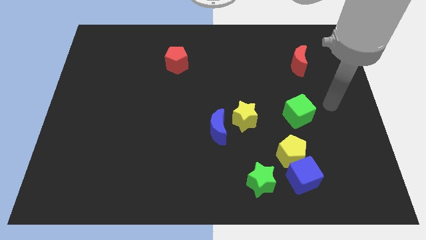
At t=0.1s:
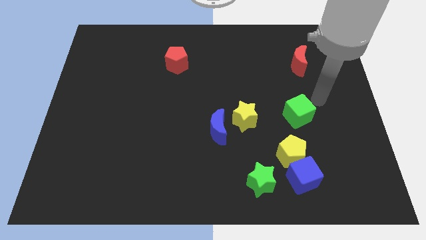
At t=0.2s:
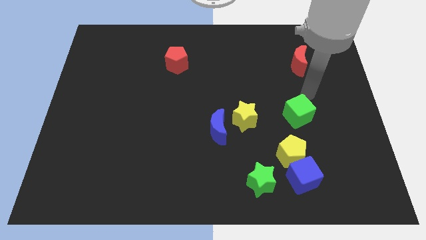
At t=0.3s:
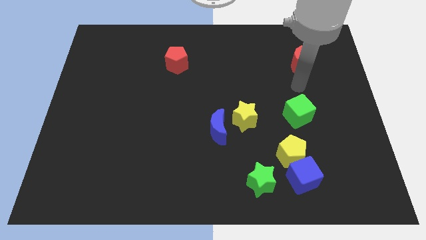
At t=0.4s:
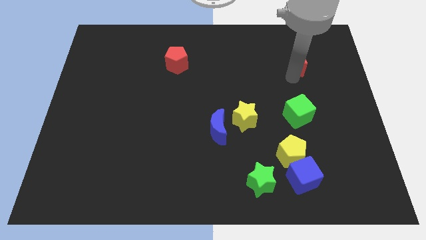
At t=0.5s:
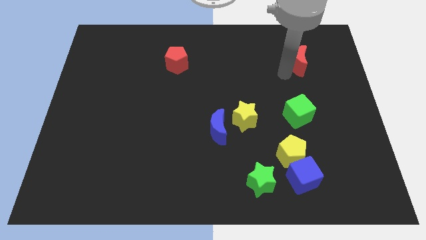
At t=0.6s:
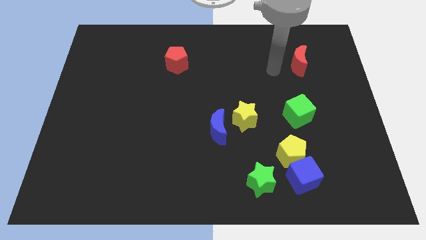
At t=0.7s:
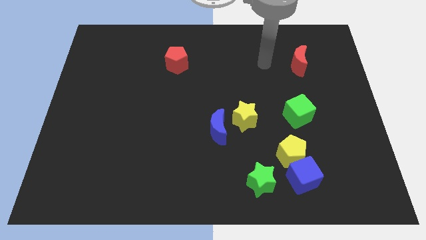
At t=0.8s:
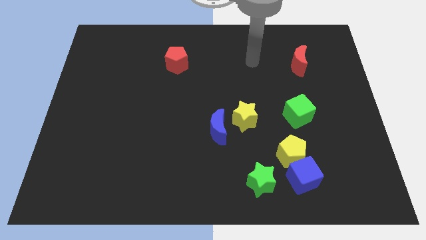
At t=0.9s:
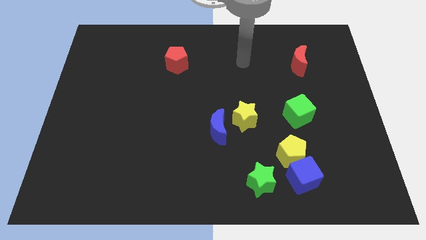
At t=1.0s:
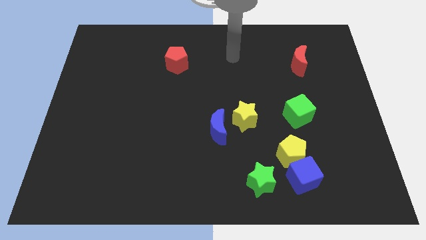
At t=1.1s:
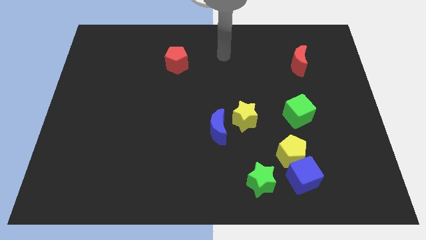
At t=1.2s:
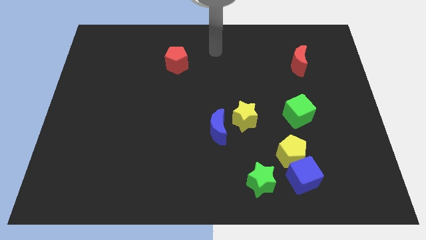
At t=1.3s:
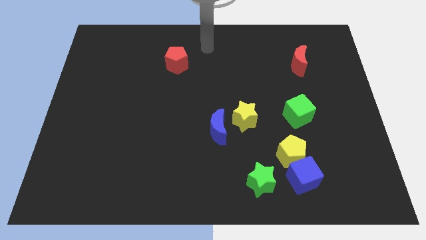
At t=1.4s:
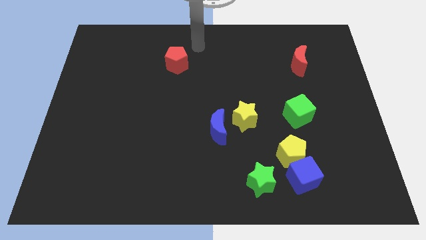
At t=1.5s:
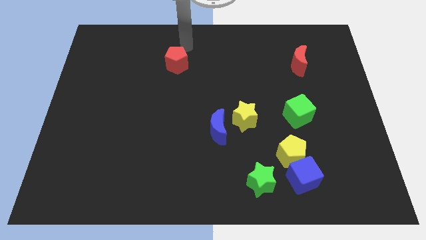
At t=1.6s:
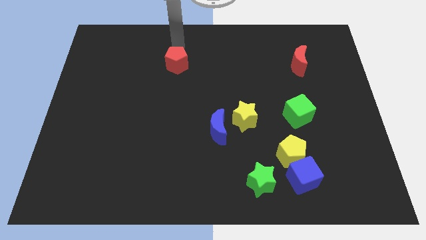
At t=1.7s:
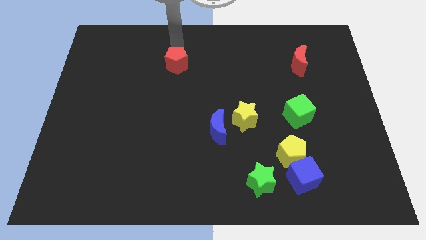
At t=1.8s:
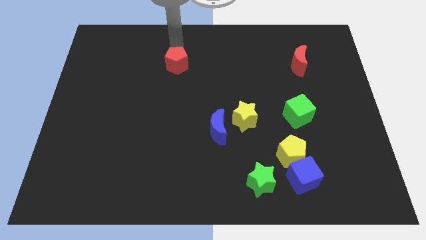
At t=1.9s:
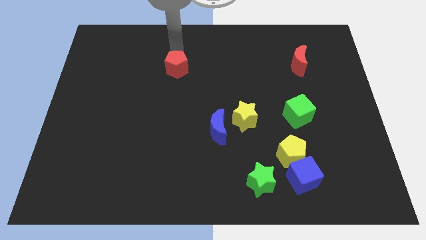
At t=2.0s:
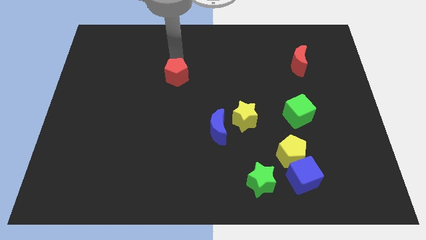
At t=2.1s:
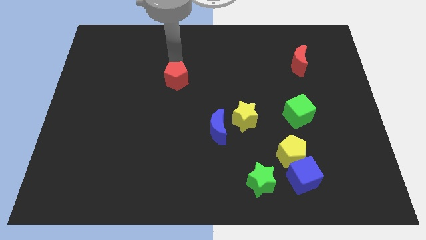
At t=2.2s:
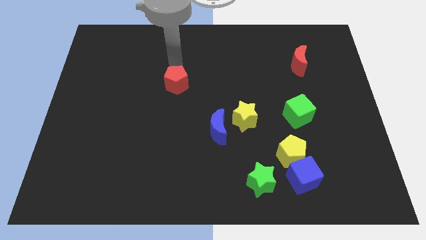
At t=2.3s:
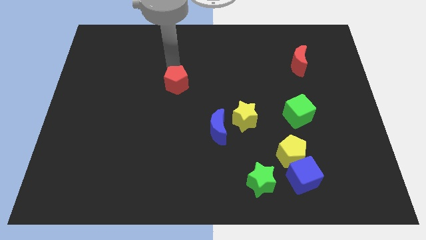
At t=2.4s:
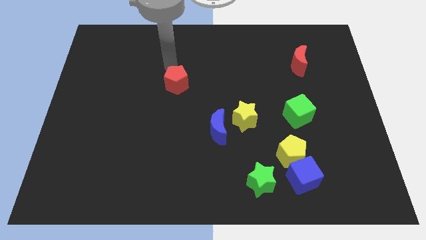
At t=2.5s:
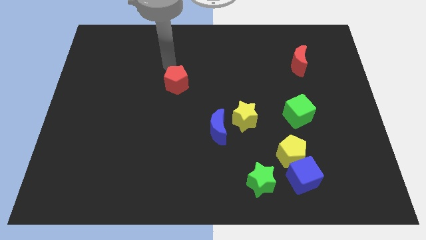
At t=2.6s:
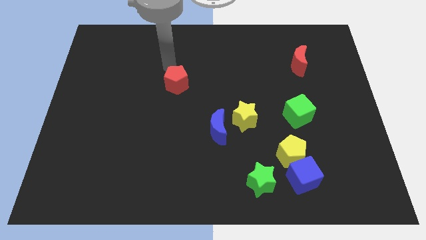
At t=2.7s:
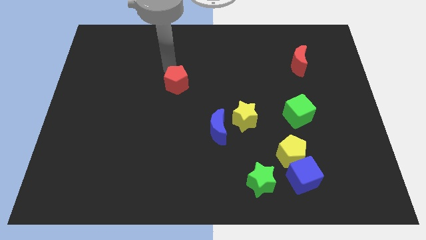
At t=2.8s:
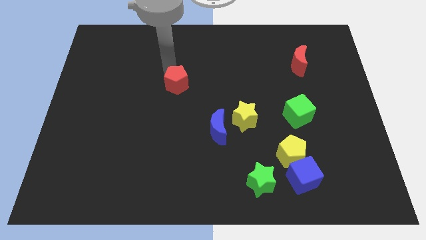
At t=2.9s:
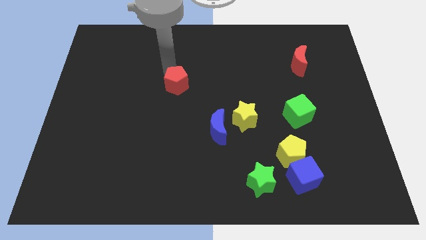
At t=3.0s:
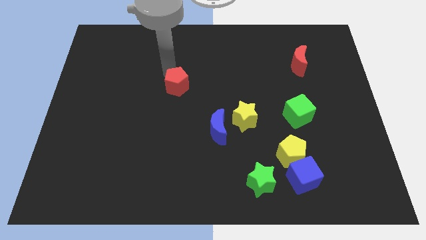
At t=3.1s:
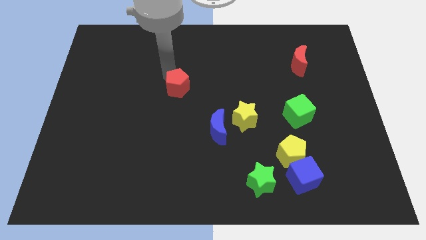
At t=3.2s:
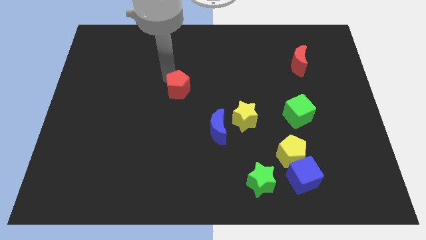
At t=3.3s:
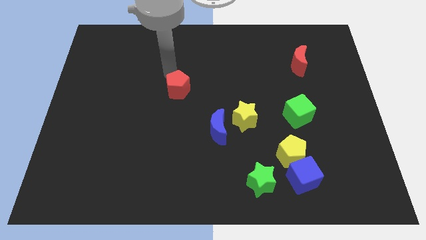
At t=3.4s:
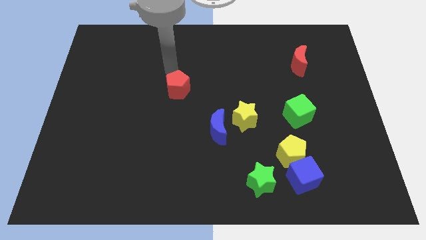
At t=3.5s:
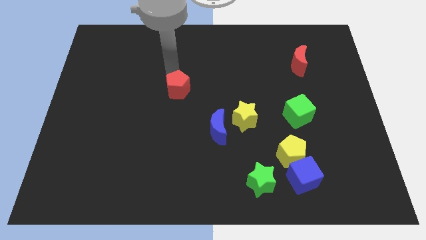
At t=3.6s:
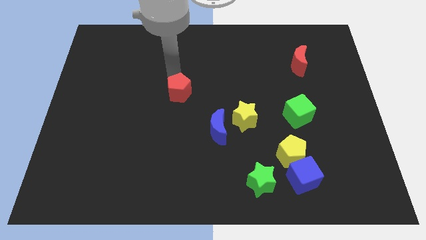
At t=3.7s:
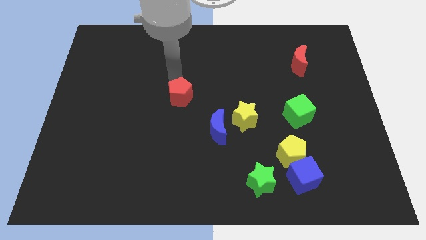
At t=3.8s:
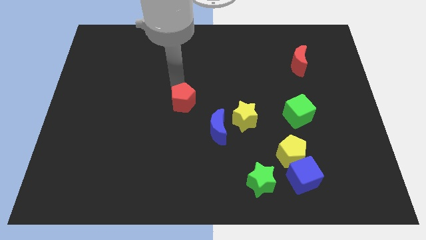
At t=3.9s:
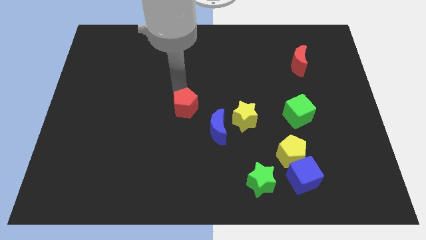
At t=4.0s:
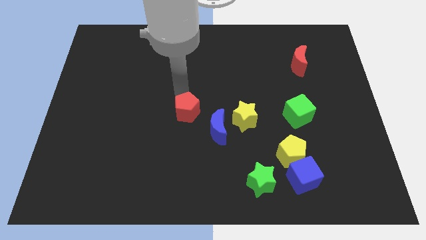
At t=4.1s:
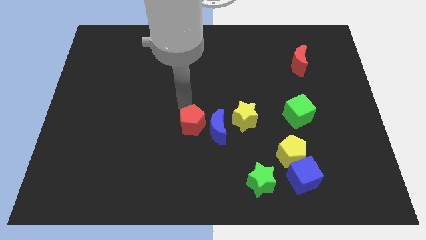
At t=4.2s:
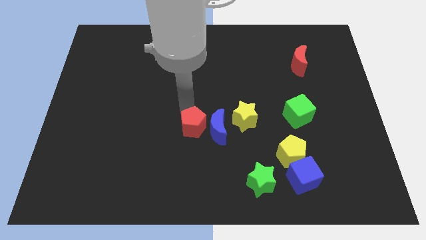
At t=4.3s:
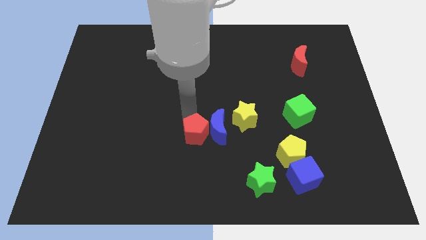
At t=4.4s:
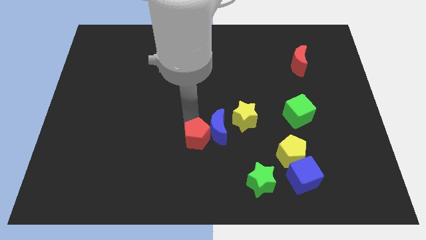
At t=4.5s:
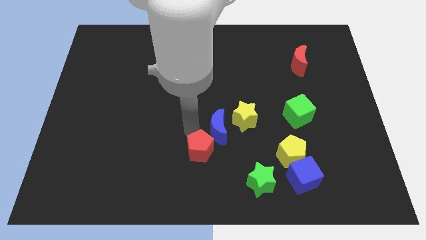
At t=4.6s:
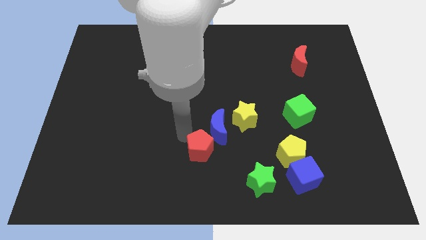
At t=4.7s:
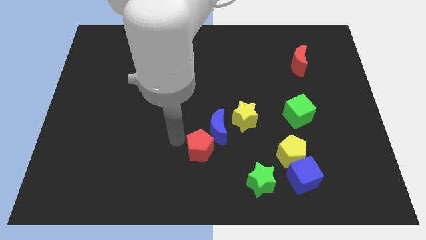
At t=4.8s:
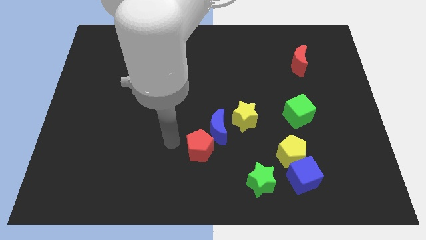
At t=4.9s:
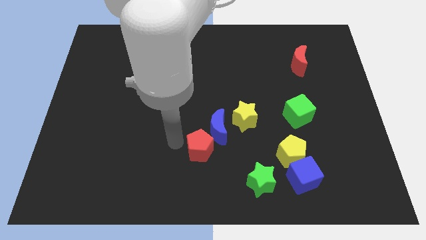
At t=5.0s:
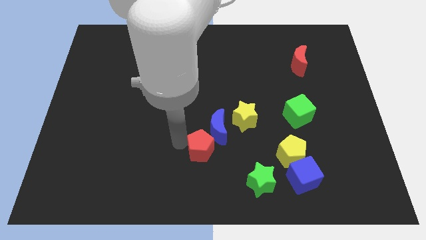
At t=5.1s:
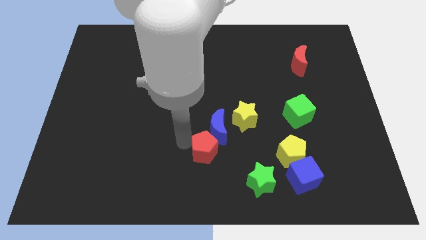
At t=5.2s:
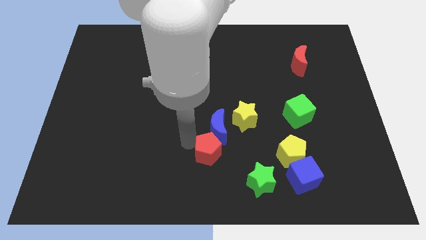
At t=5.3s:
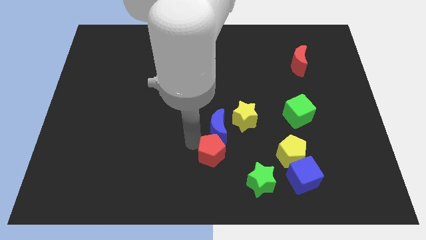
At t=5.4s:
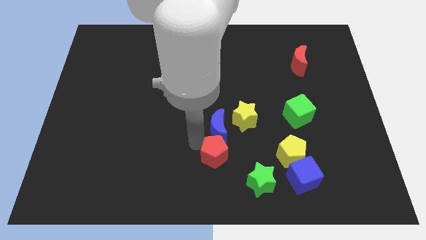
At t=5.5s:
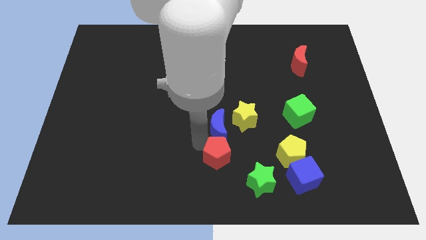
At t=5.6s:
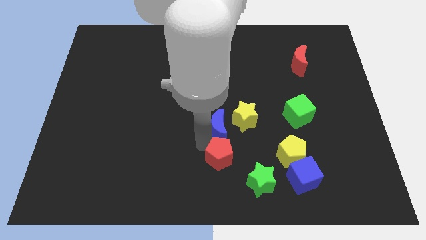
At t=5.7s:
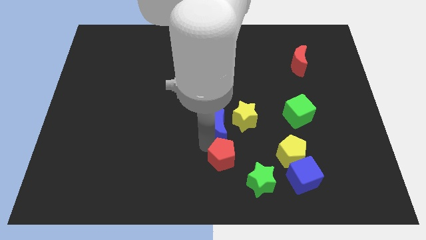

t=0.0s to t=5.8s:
put the red pentagon to the bottom of the yellow star

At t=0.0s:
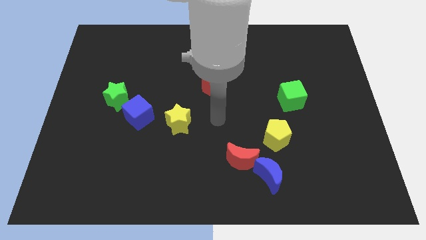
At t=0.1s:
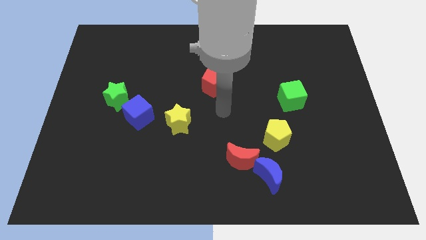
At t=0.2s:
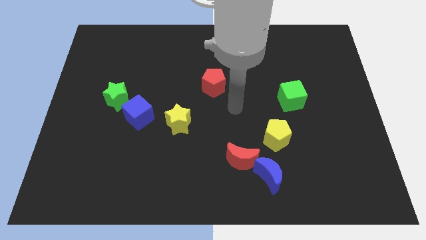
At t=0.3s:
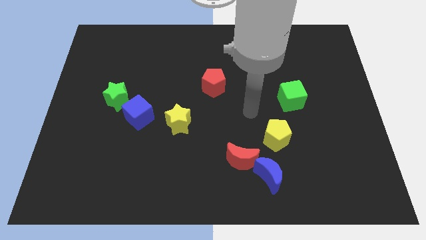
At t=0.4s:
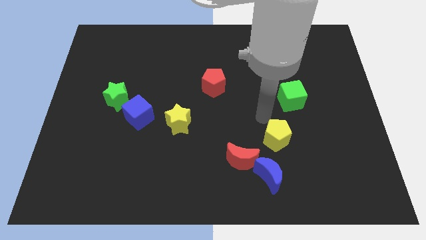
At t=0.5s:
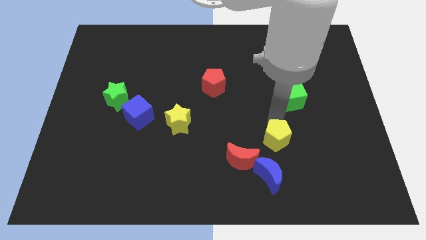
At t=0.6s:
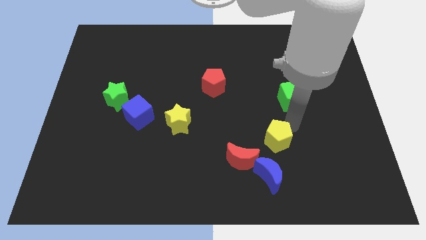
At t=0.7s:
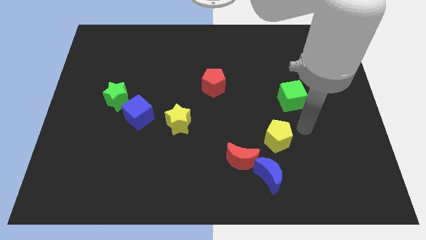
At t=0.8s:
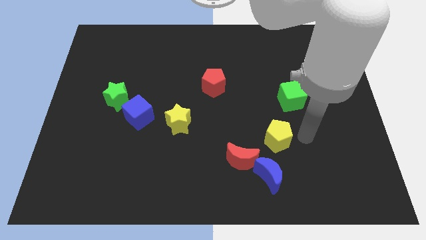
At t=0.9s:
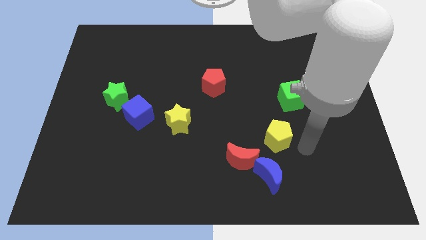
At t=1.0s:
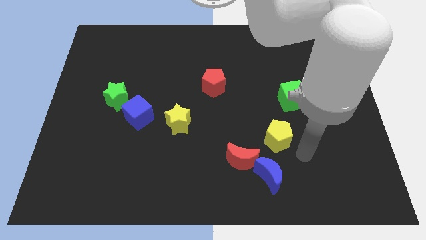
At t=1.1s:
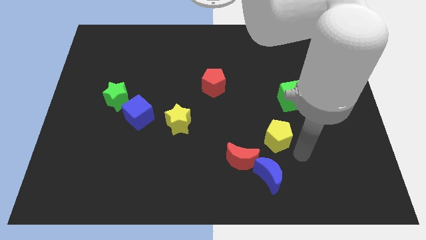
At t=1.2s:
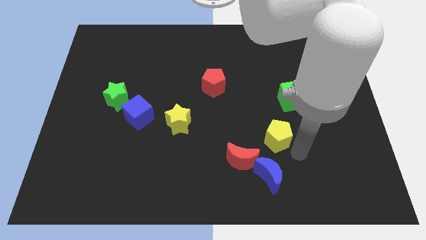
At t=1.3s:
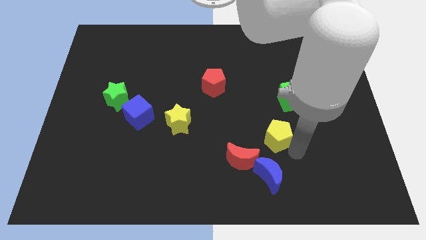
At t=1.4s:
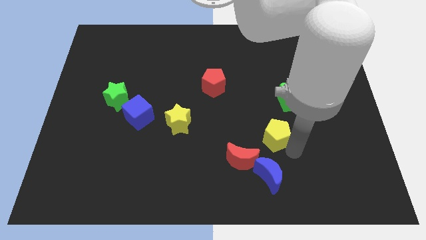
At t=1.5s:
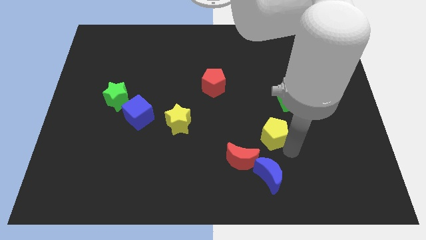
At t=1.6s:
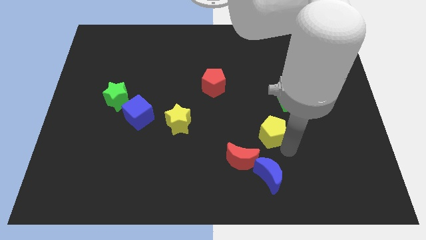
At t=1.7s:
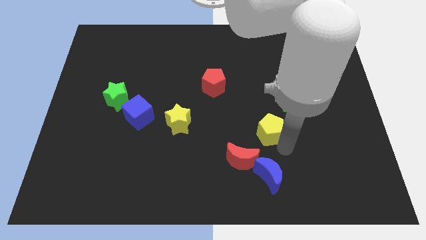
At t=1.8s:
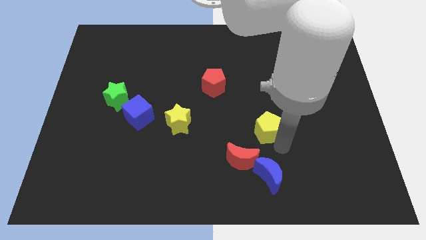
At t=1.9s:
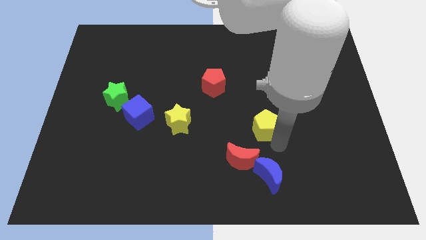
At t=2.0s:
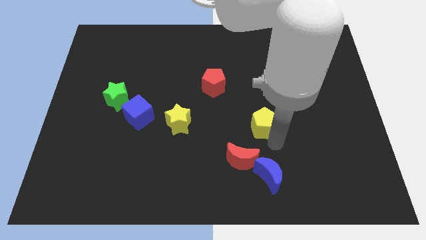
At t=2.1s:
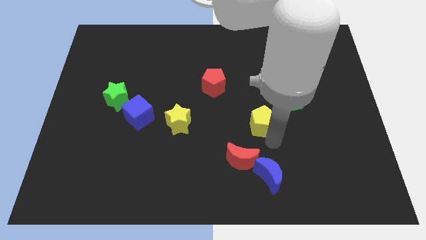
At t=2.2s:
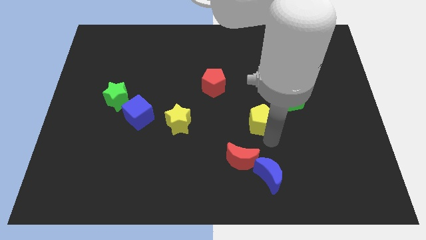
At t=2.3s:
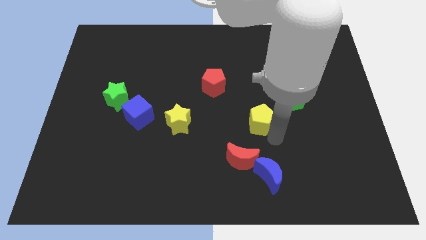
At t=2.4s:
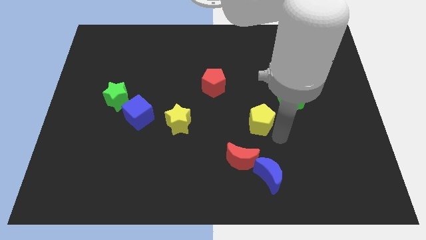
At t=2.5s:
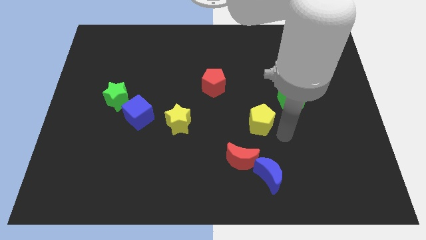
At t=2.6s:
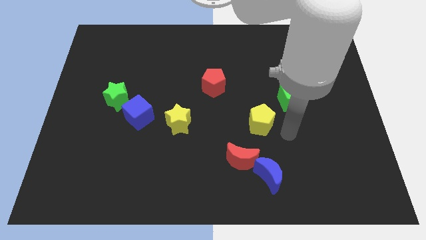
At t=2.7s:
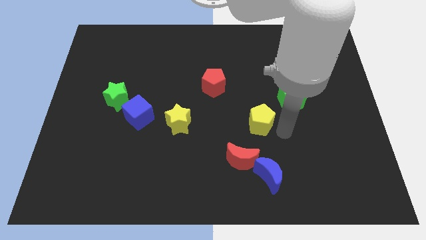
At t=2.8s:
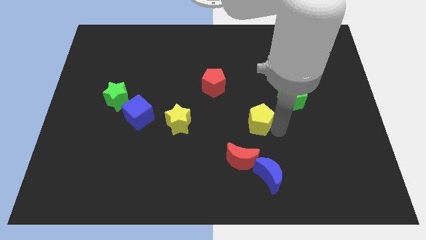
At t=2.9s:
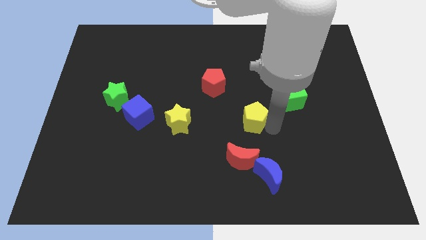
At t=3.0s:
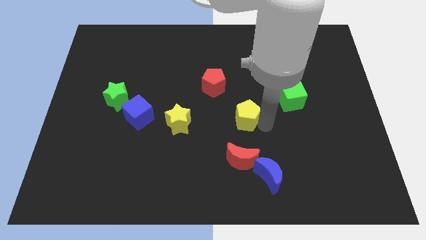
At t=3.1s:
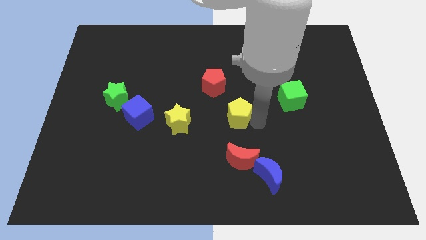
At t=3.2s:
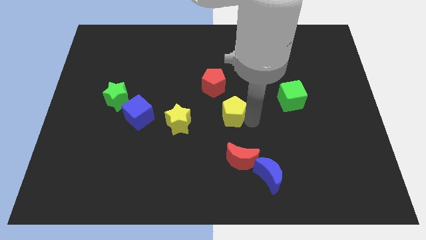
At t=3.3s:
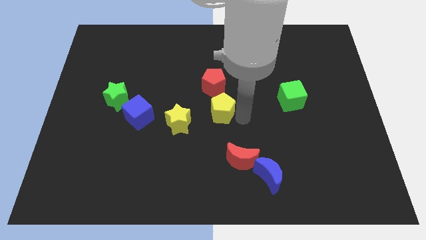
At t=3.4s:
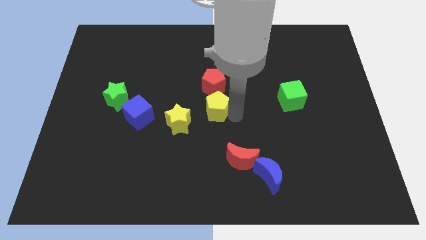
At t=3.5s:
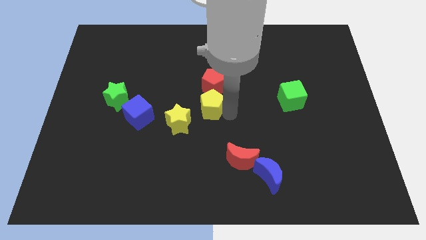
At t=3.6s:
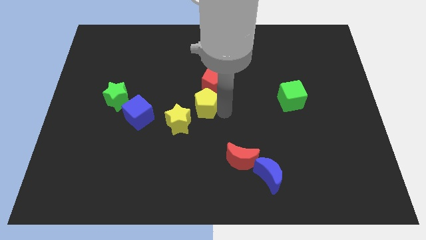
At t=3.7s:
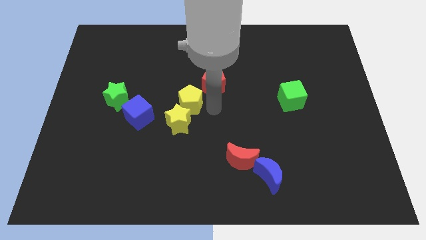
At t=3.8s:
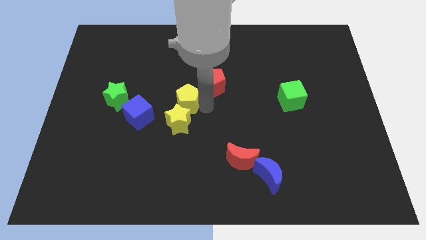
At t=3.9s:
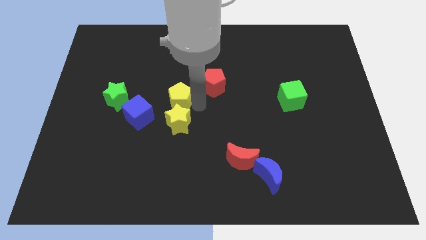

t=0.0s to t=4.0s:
slide the yellow pentagon diagonally up and to the right of the blue cube
